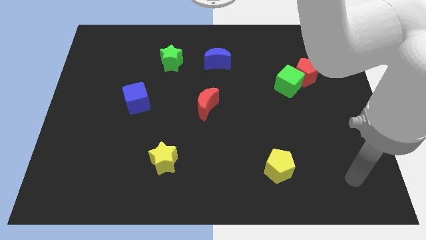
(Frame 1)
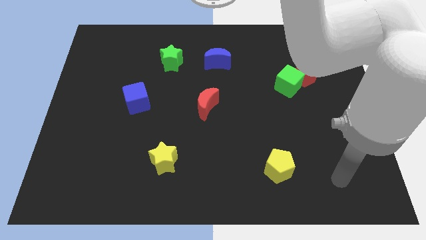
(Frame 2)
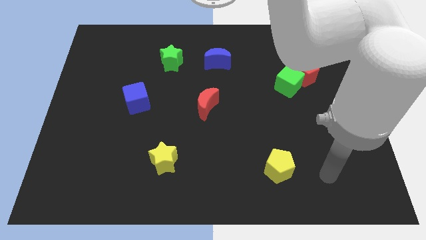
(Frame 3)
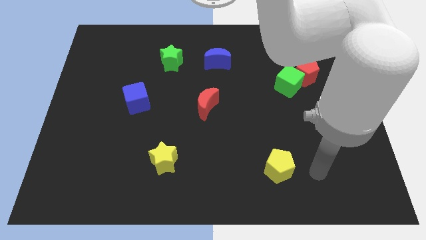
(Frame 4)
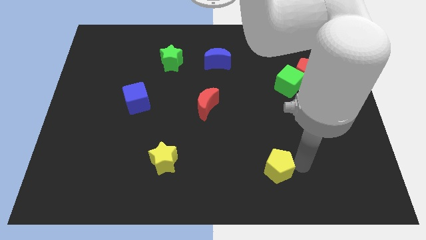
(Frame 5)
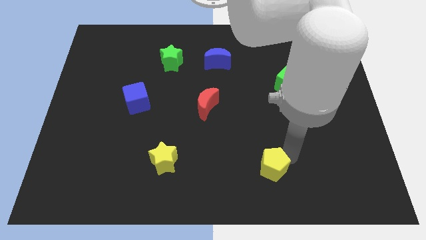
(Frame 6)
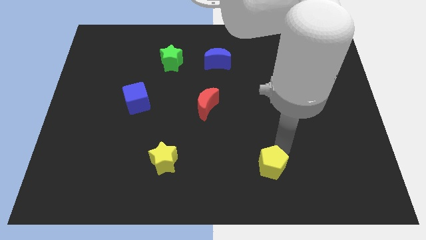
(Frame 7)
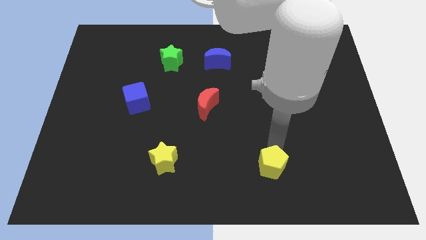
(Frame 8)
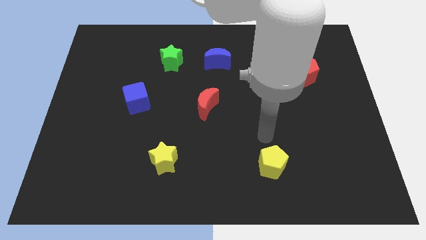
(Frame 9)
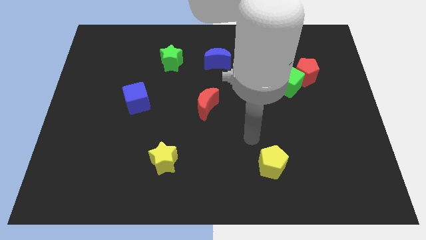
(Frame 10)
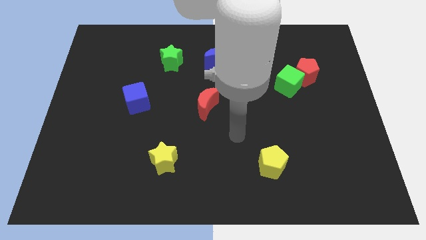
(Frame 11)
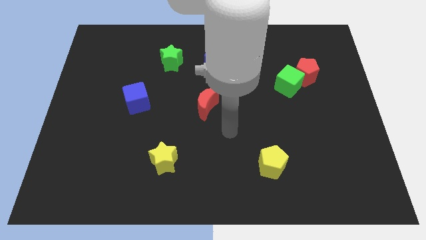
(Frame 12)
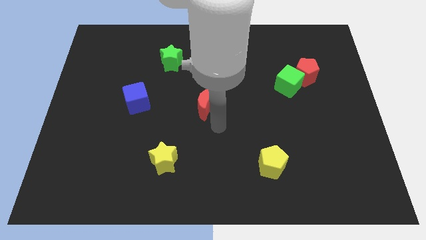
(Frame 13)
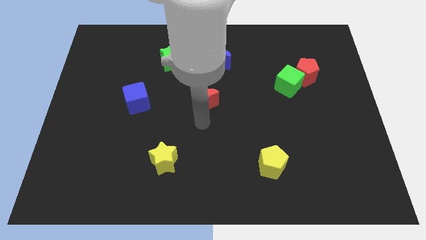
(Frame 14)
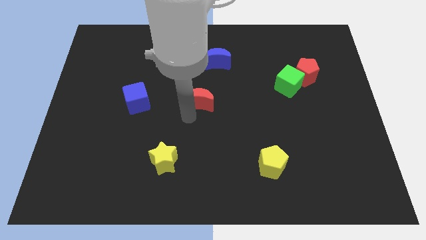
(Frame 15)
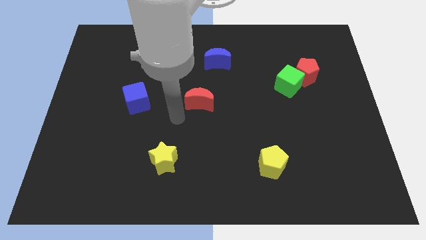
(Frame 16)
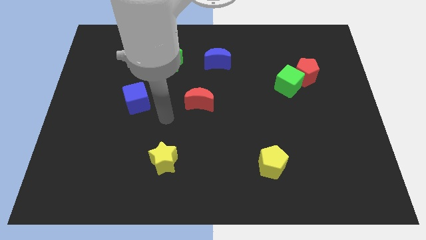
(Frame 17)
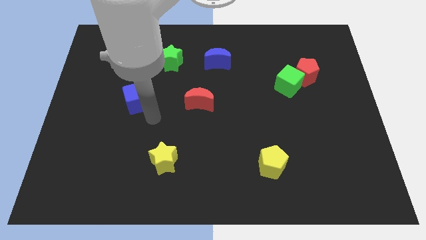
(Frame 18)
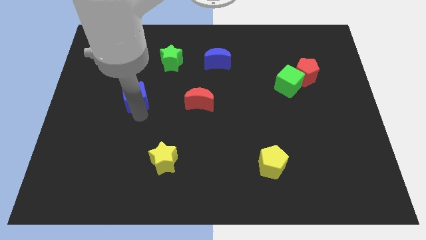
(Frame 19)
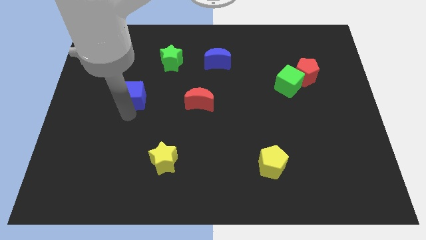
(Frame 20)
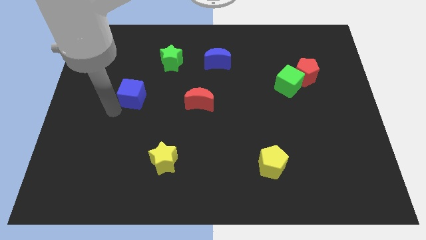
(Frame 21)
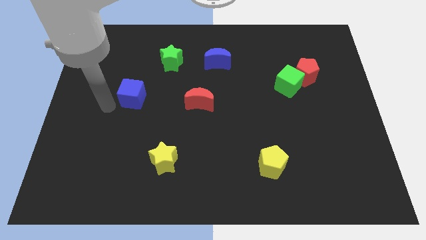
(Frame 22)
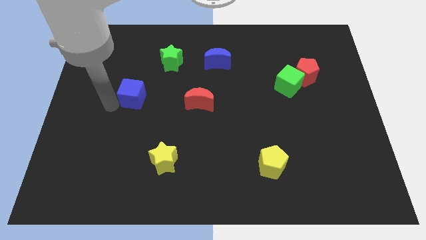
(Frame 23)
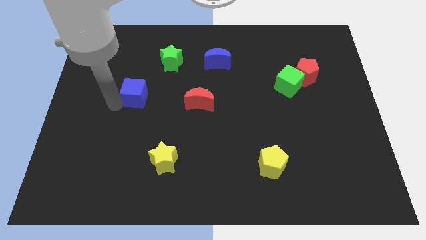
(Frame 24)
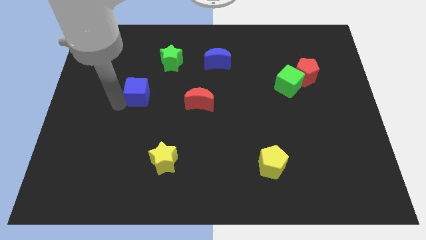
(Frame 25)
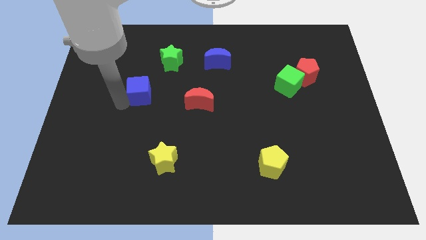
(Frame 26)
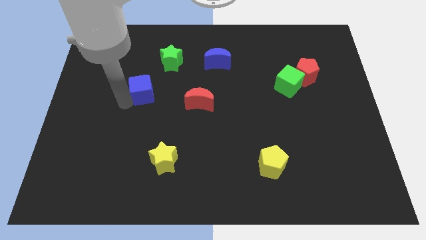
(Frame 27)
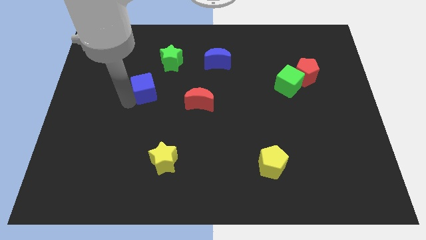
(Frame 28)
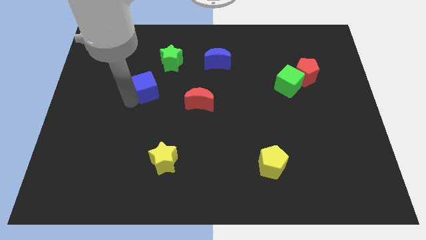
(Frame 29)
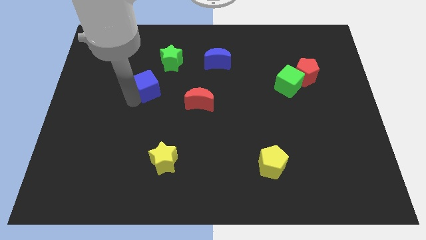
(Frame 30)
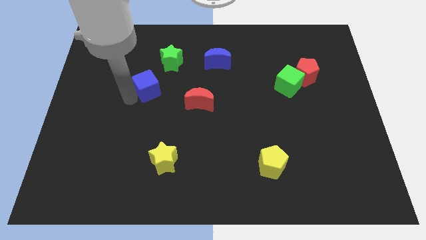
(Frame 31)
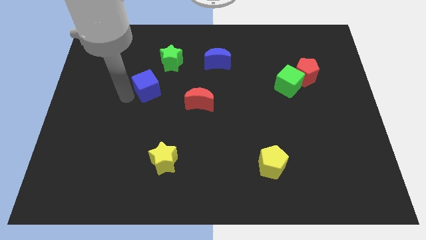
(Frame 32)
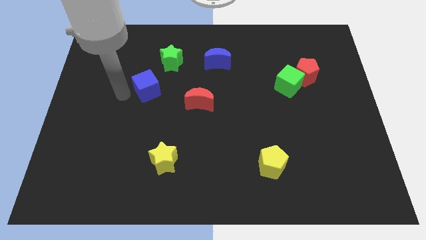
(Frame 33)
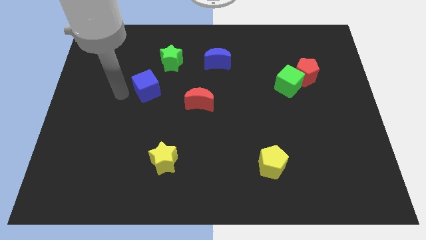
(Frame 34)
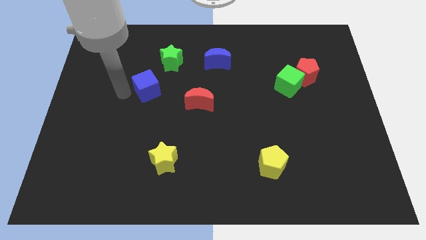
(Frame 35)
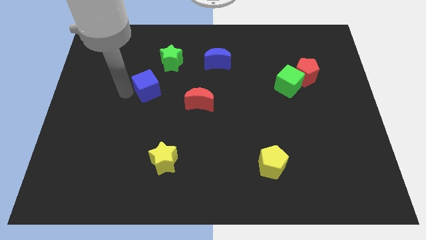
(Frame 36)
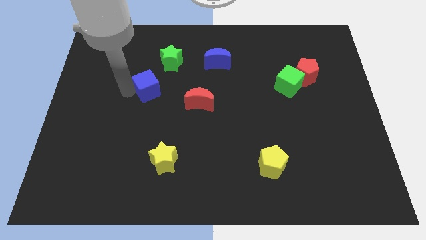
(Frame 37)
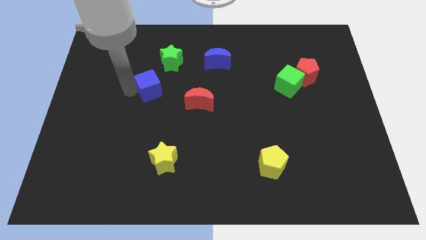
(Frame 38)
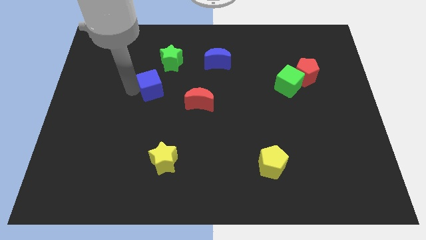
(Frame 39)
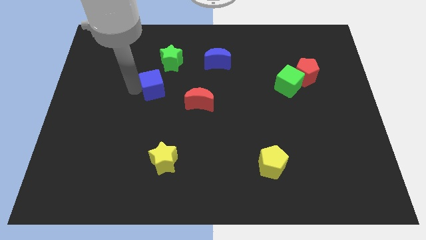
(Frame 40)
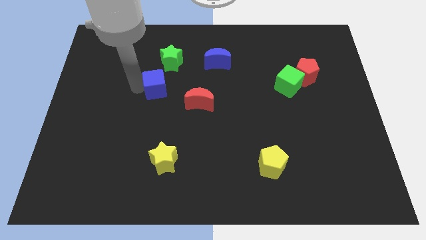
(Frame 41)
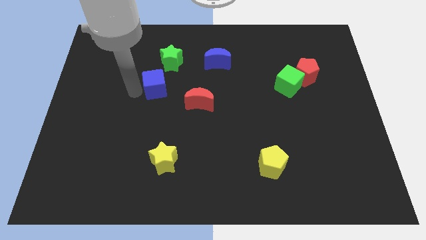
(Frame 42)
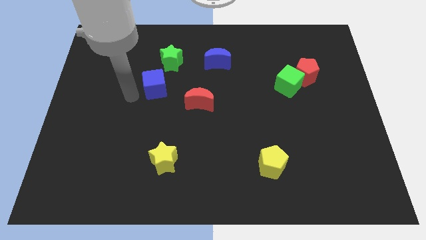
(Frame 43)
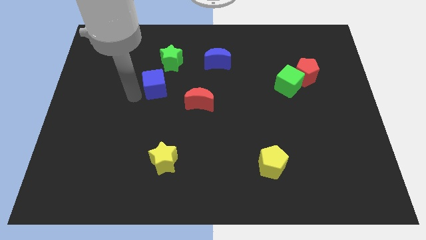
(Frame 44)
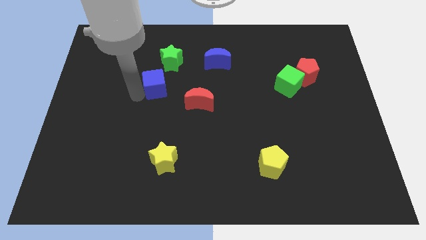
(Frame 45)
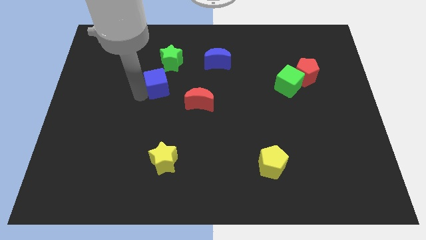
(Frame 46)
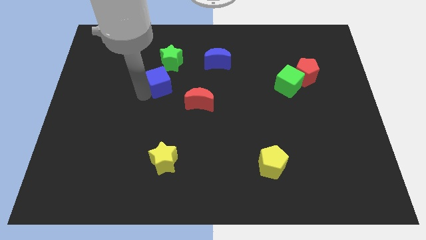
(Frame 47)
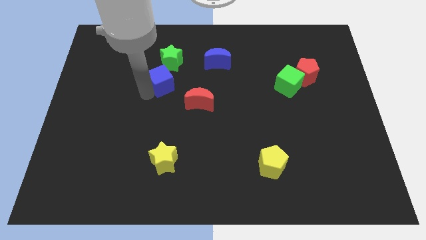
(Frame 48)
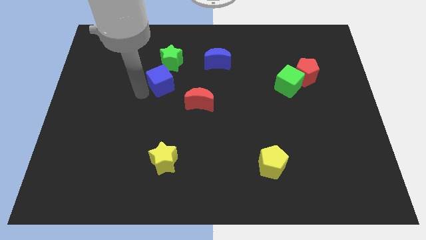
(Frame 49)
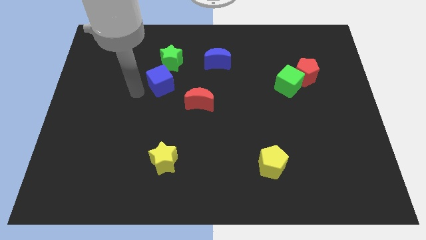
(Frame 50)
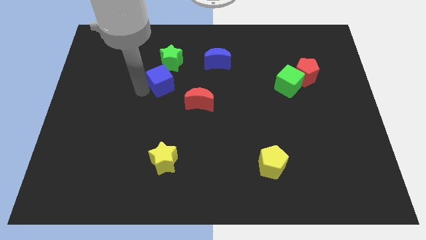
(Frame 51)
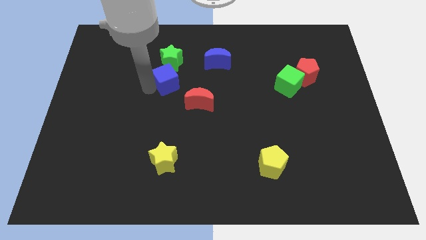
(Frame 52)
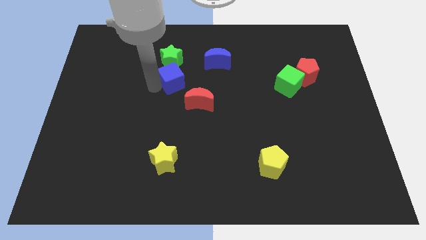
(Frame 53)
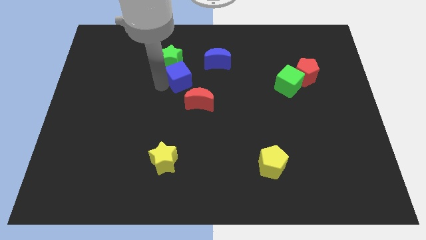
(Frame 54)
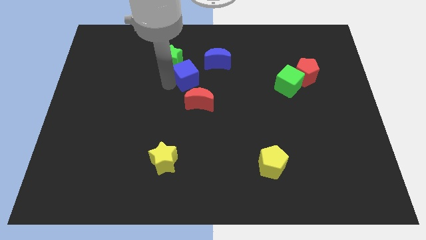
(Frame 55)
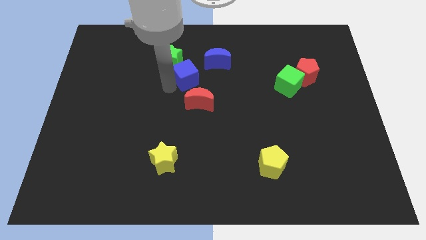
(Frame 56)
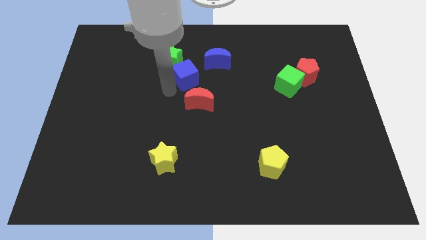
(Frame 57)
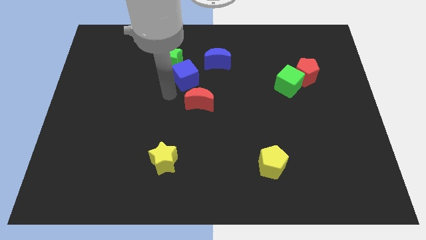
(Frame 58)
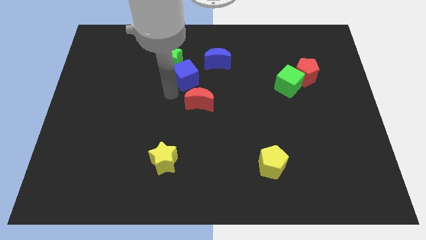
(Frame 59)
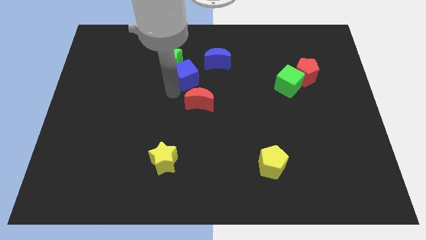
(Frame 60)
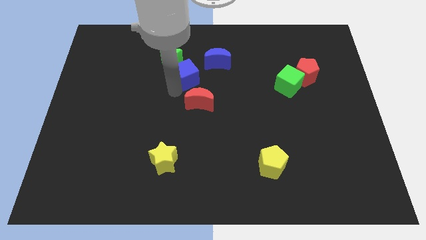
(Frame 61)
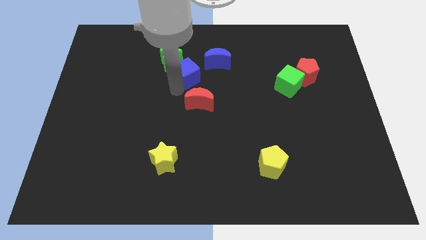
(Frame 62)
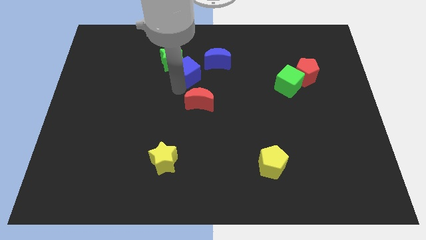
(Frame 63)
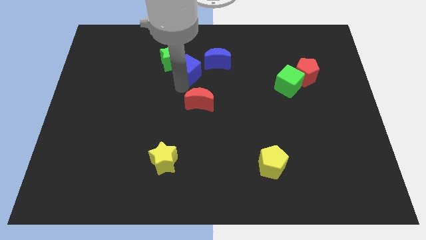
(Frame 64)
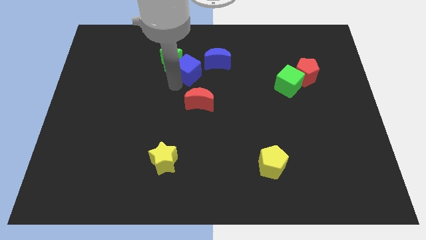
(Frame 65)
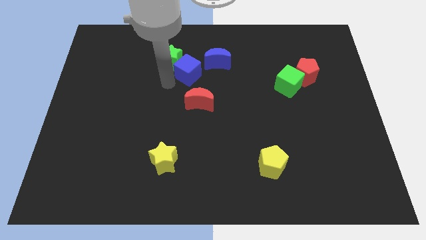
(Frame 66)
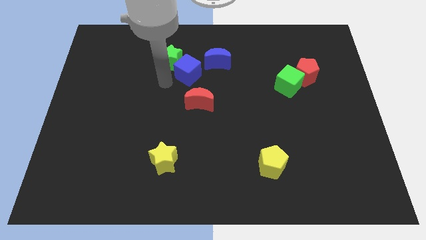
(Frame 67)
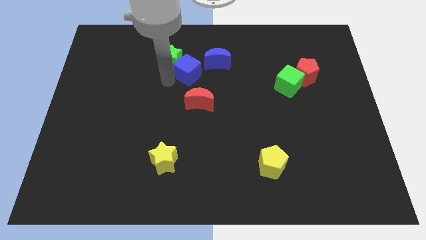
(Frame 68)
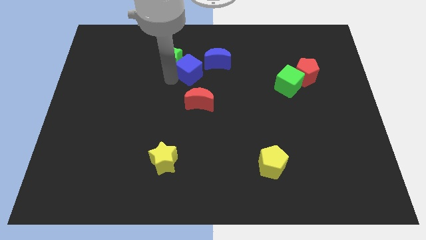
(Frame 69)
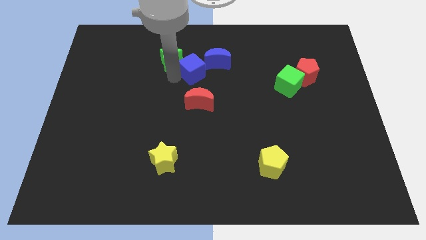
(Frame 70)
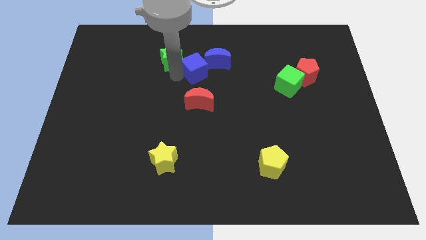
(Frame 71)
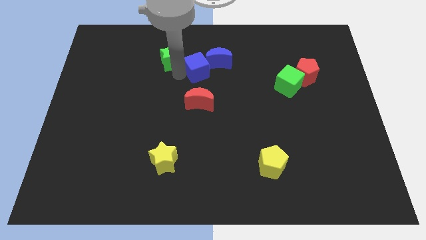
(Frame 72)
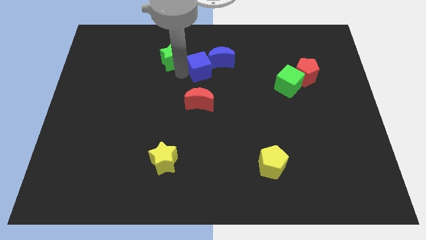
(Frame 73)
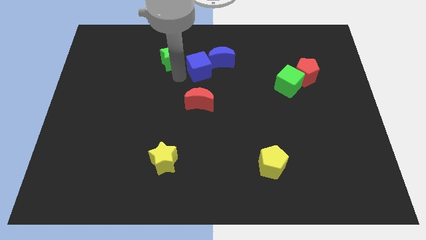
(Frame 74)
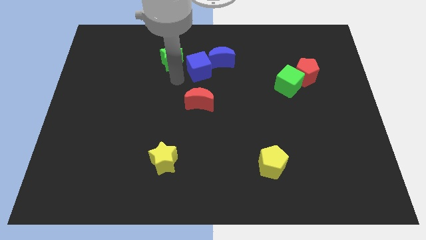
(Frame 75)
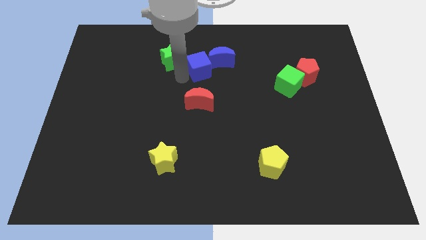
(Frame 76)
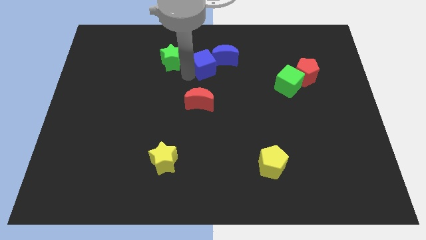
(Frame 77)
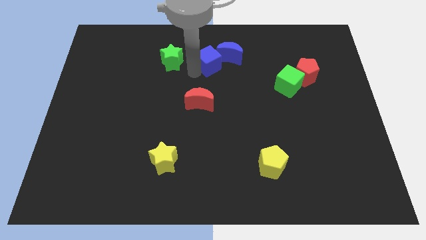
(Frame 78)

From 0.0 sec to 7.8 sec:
move the blue cube next to the blue moon
